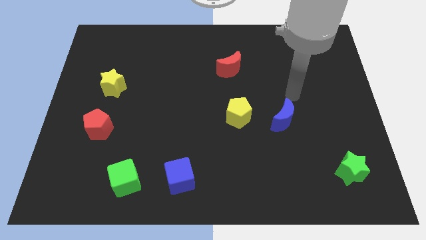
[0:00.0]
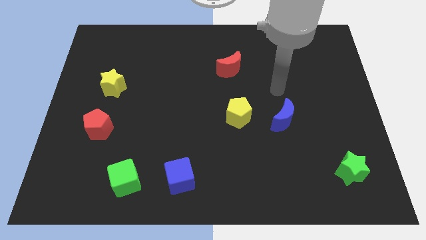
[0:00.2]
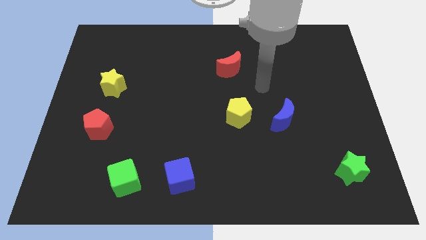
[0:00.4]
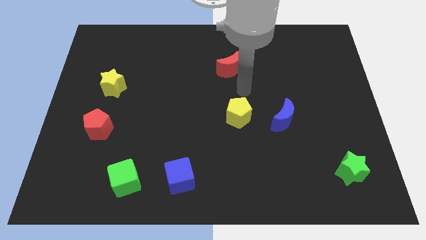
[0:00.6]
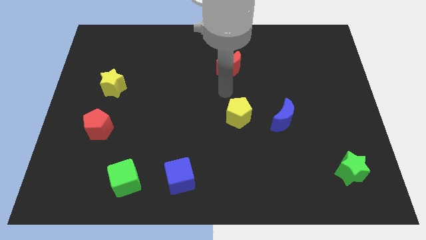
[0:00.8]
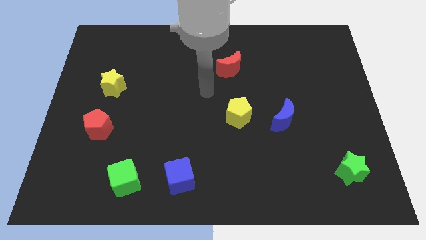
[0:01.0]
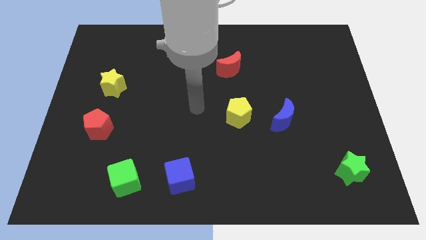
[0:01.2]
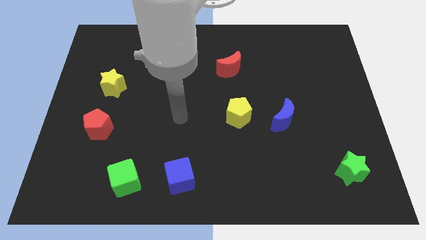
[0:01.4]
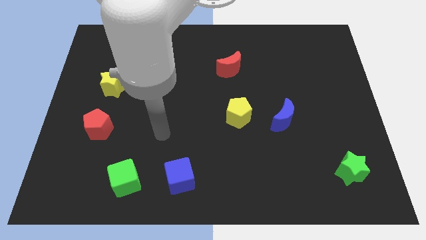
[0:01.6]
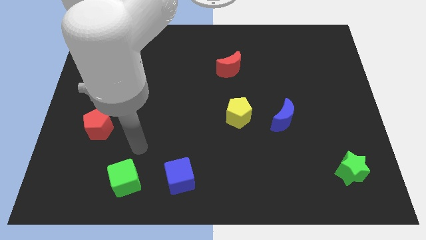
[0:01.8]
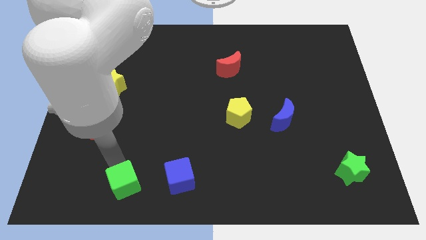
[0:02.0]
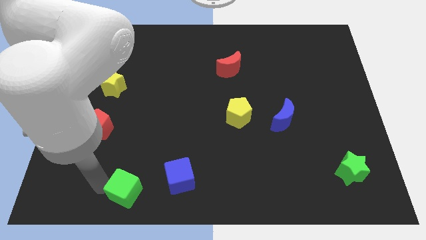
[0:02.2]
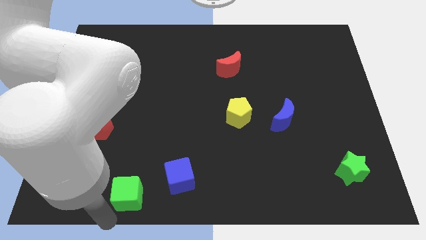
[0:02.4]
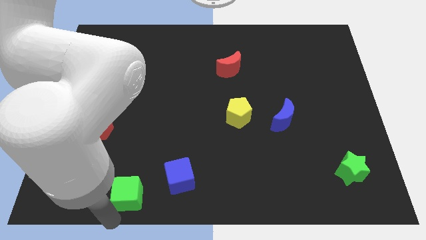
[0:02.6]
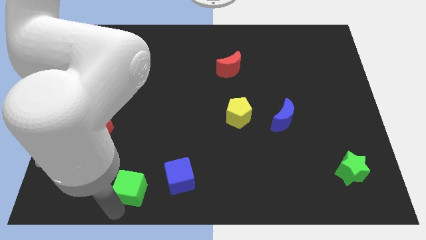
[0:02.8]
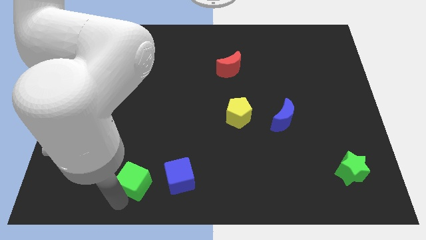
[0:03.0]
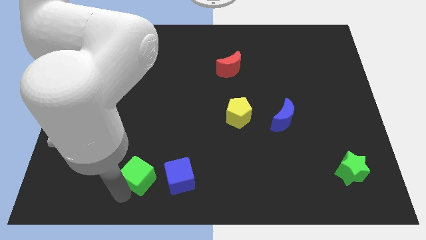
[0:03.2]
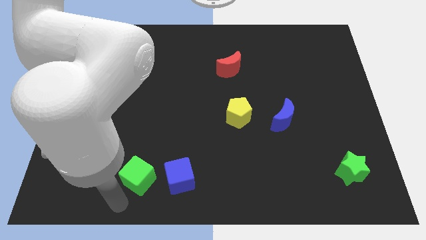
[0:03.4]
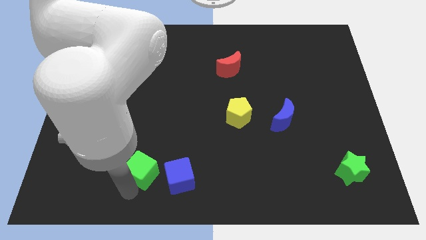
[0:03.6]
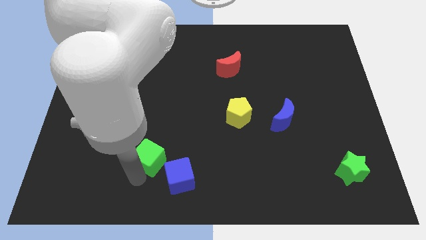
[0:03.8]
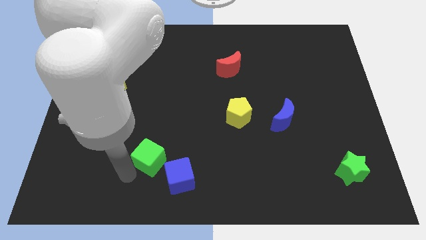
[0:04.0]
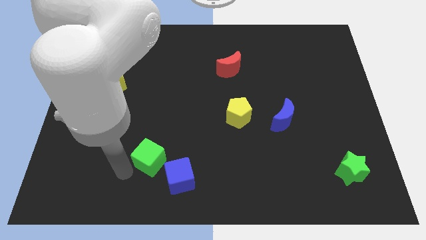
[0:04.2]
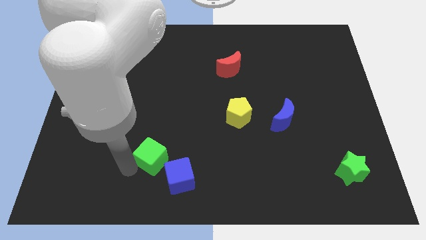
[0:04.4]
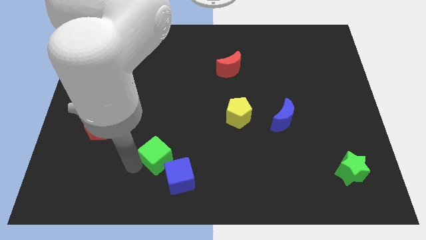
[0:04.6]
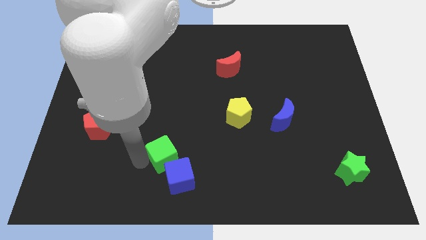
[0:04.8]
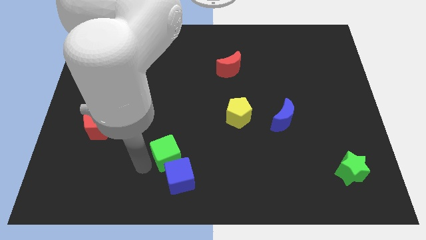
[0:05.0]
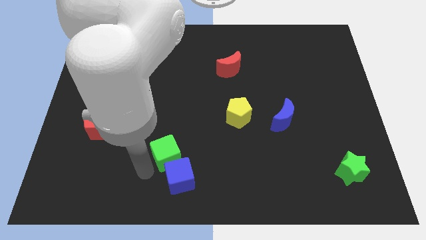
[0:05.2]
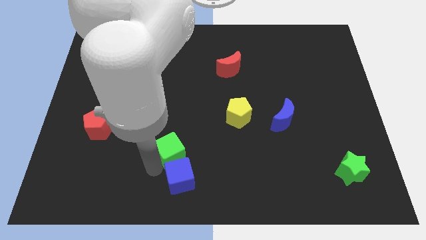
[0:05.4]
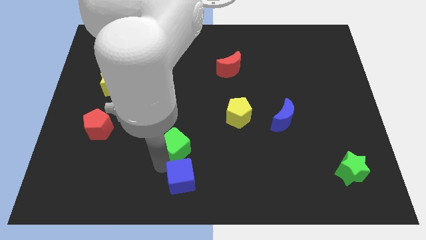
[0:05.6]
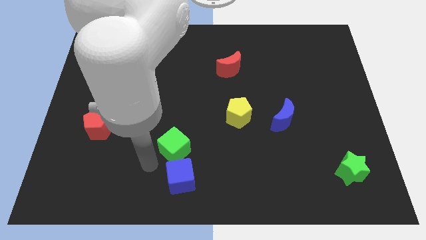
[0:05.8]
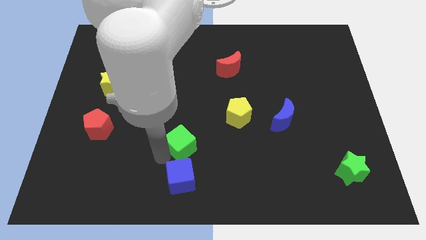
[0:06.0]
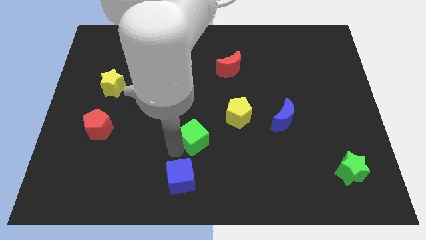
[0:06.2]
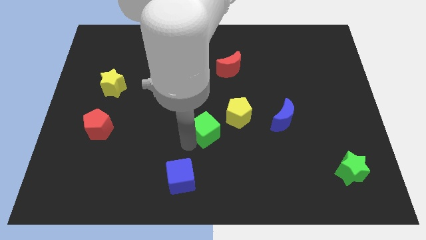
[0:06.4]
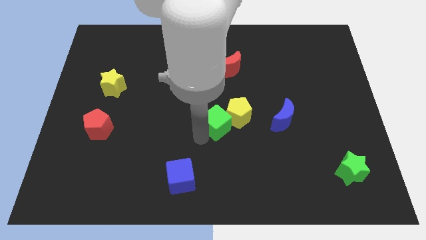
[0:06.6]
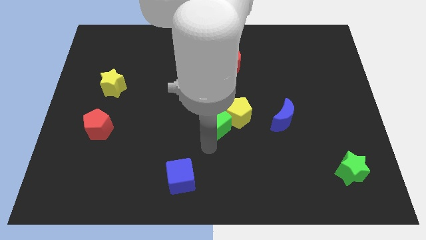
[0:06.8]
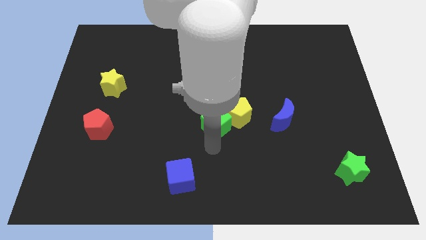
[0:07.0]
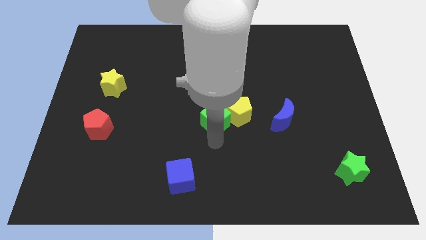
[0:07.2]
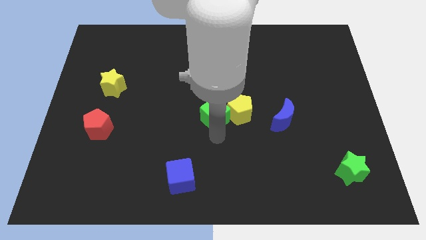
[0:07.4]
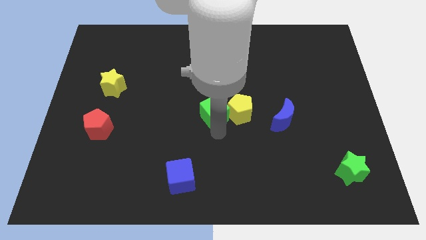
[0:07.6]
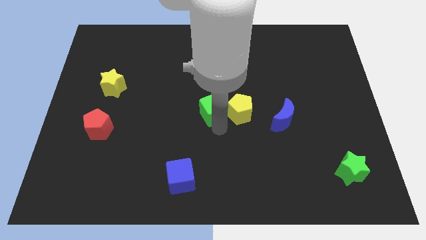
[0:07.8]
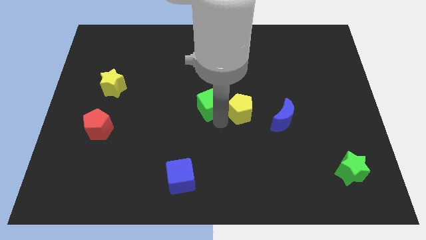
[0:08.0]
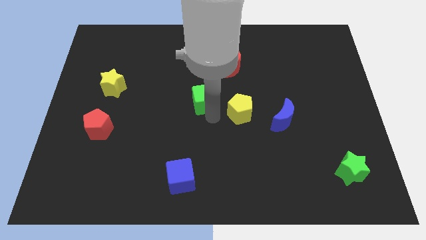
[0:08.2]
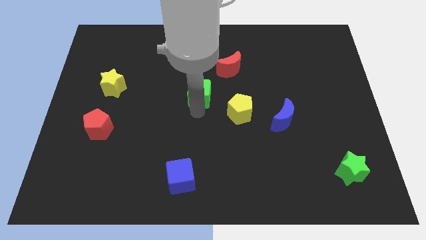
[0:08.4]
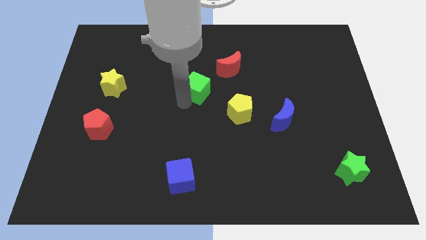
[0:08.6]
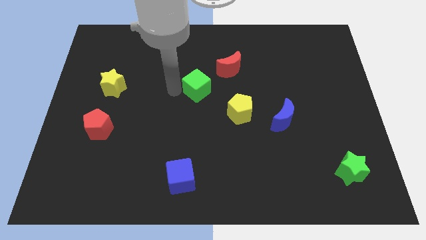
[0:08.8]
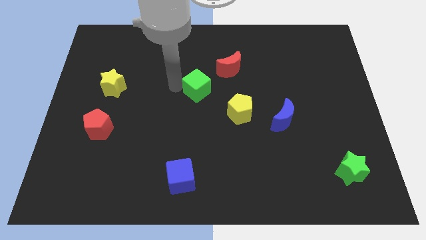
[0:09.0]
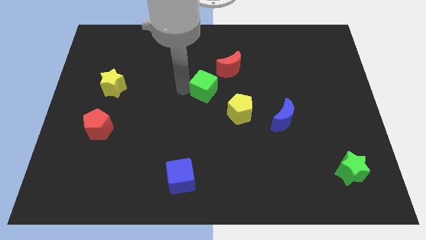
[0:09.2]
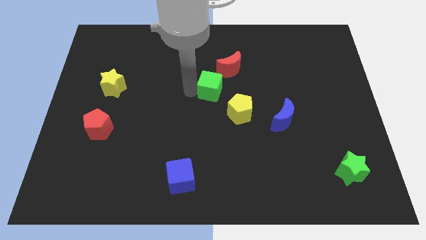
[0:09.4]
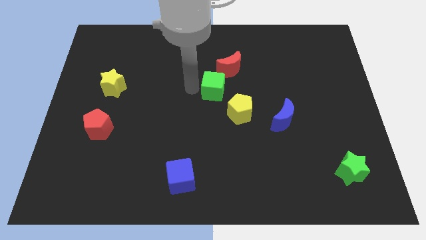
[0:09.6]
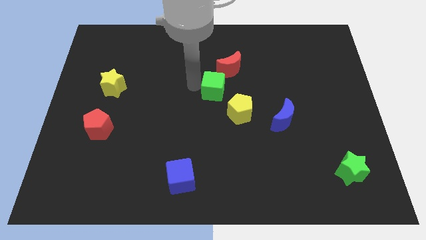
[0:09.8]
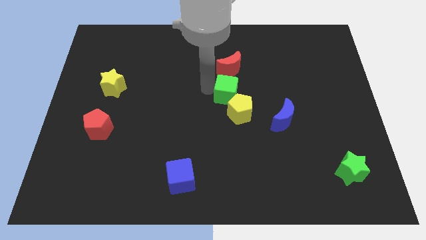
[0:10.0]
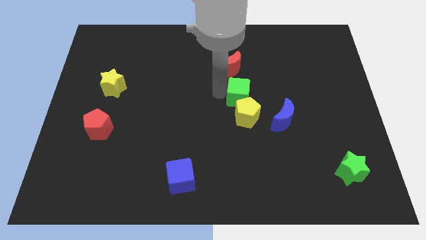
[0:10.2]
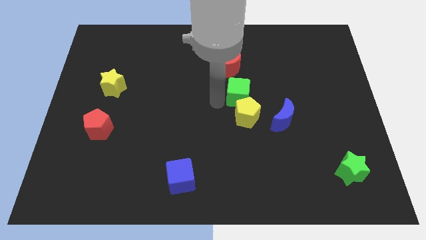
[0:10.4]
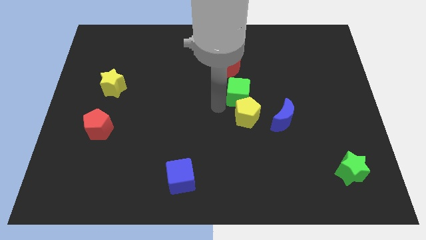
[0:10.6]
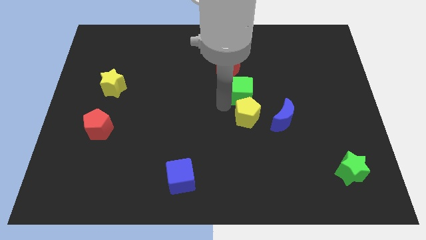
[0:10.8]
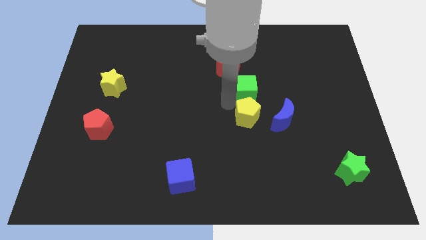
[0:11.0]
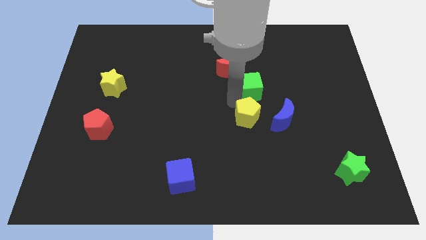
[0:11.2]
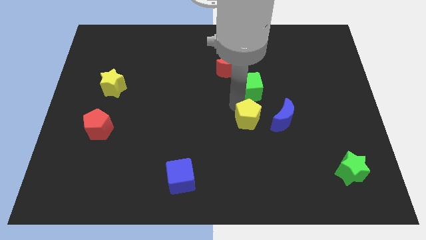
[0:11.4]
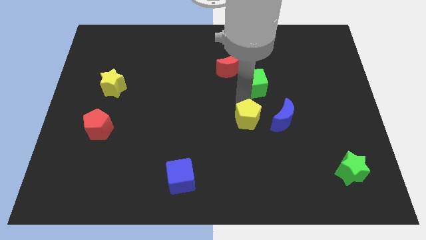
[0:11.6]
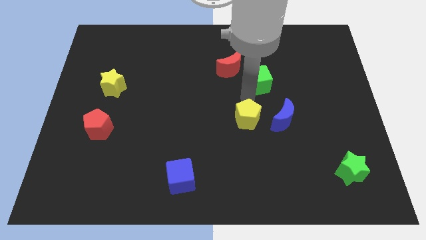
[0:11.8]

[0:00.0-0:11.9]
slide the green cube to the right of the red moon

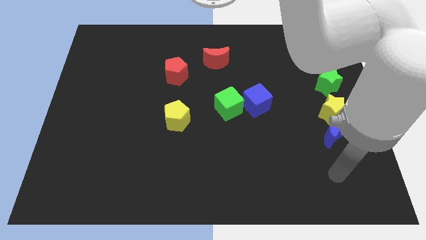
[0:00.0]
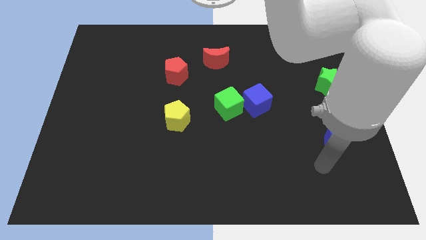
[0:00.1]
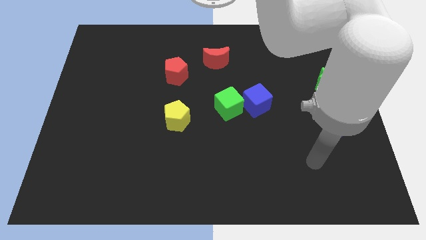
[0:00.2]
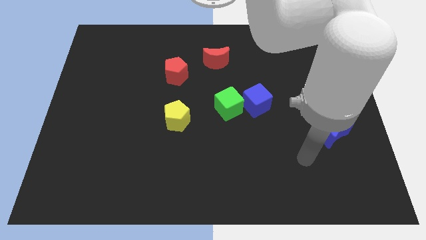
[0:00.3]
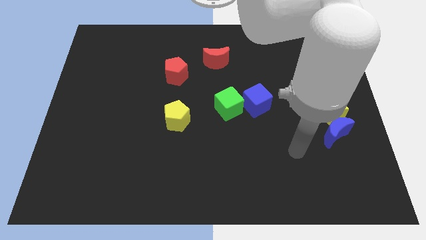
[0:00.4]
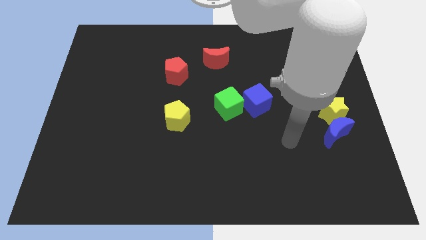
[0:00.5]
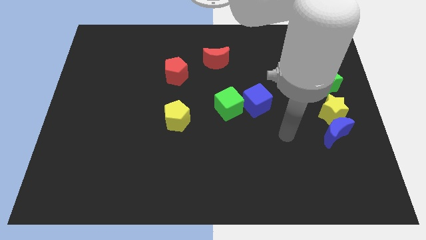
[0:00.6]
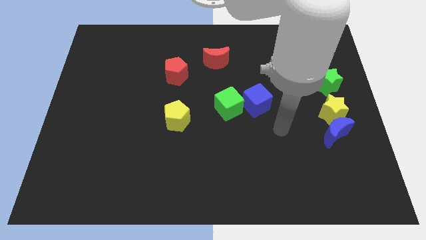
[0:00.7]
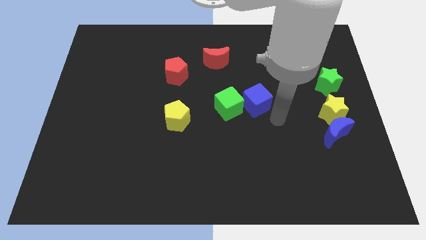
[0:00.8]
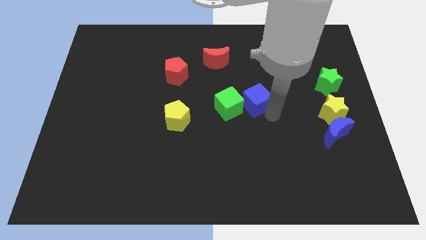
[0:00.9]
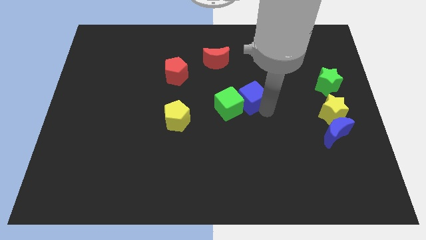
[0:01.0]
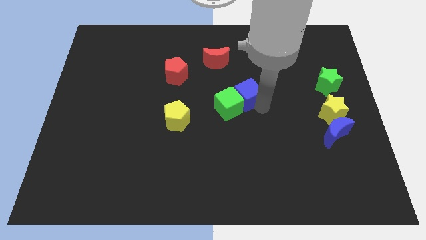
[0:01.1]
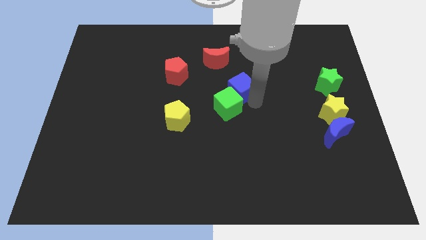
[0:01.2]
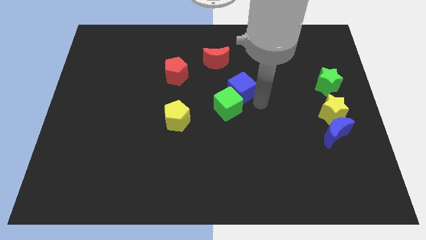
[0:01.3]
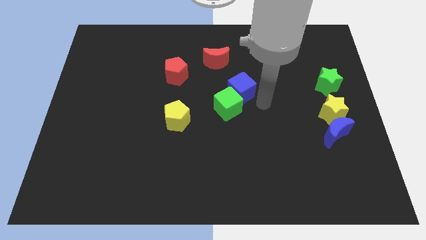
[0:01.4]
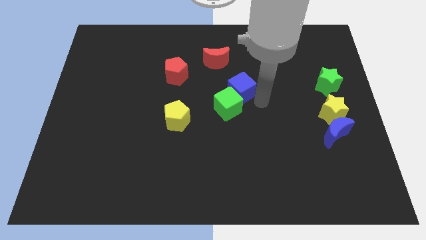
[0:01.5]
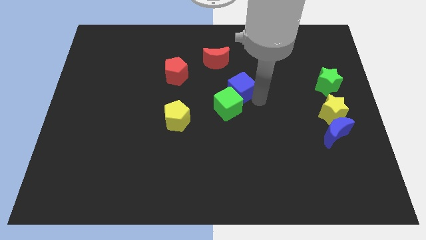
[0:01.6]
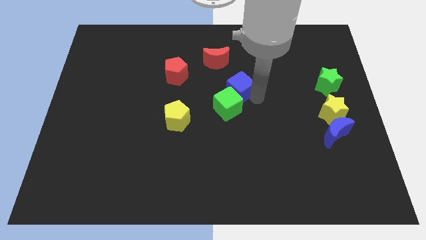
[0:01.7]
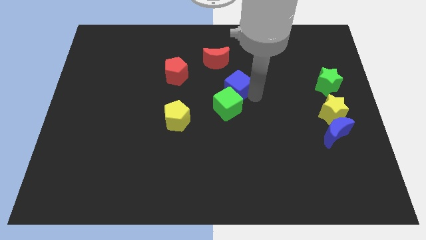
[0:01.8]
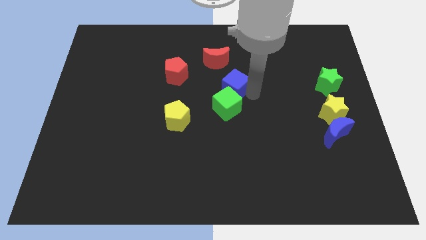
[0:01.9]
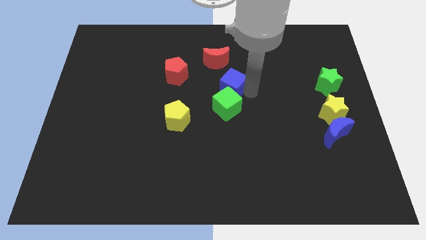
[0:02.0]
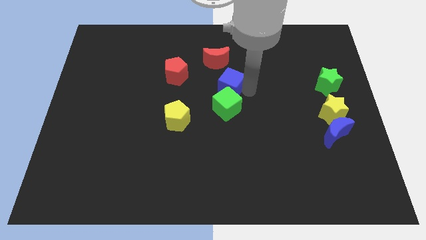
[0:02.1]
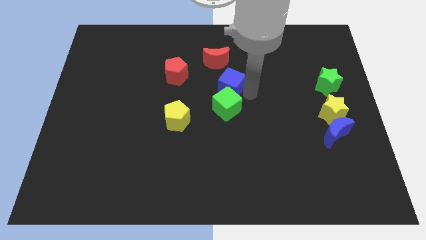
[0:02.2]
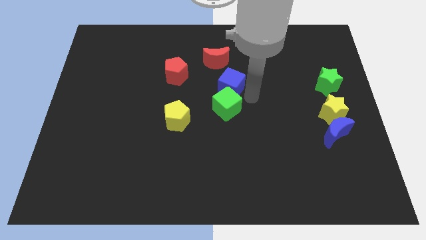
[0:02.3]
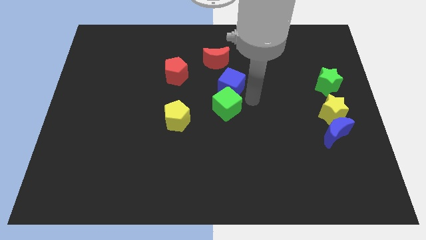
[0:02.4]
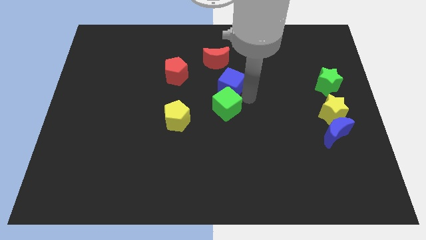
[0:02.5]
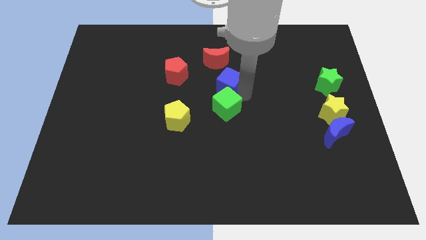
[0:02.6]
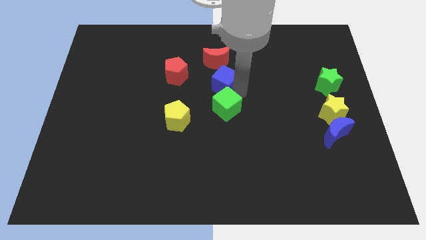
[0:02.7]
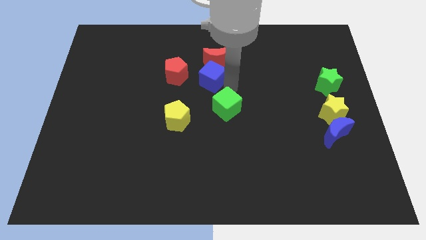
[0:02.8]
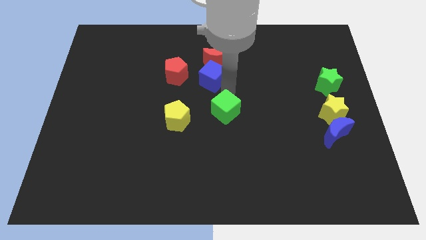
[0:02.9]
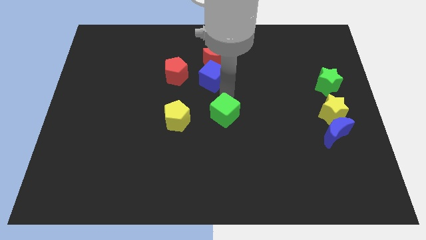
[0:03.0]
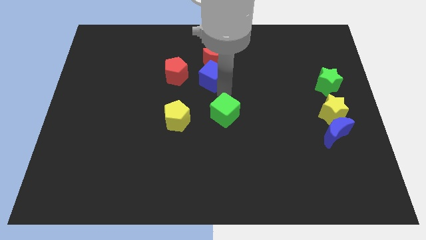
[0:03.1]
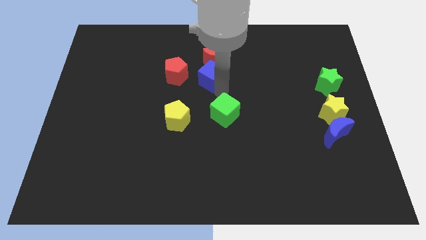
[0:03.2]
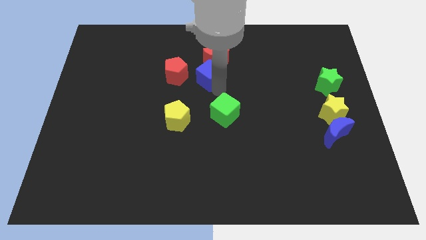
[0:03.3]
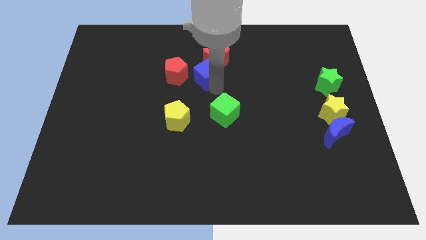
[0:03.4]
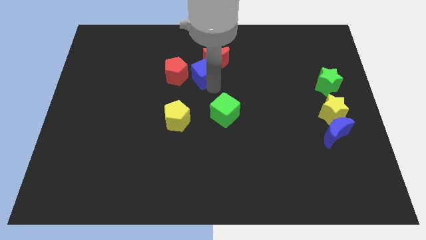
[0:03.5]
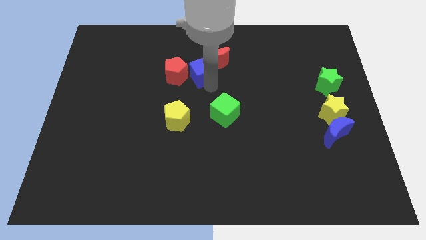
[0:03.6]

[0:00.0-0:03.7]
move the blue cube to the top right of the red pentagon
